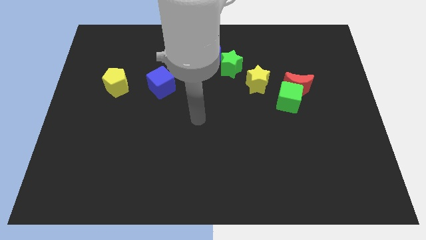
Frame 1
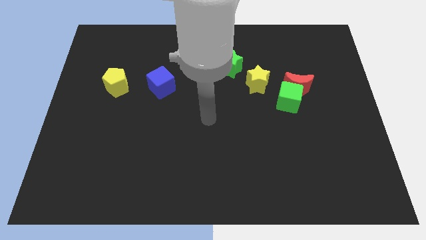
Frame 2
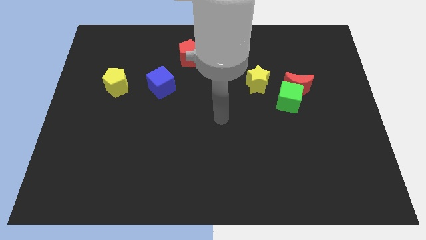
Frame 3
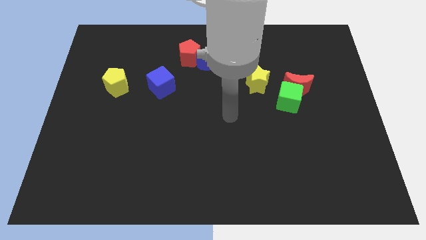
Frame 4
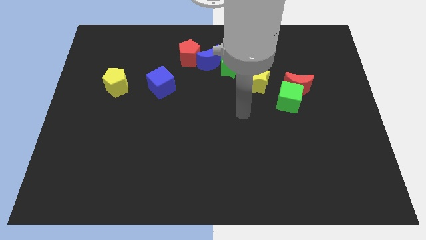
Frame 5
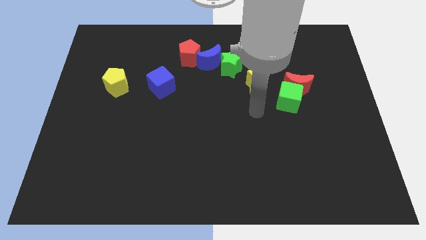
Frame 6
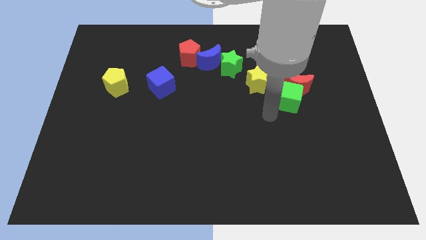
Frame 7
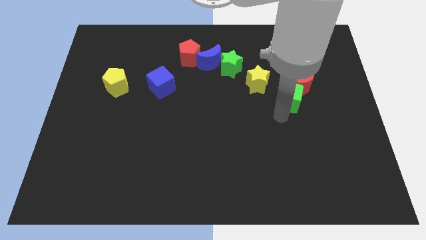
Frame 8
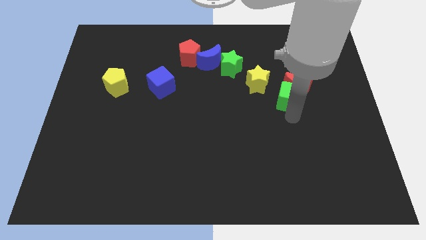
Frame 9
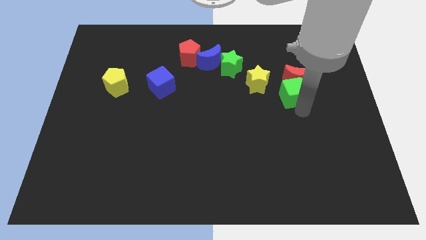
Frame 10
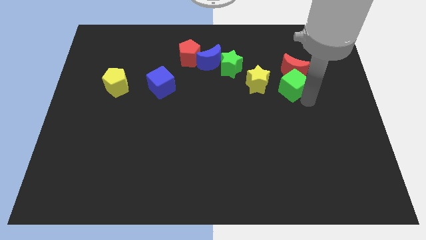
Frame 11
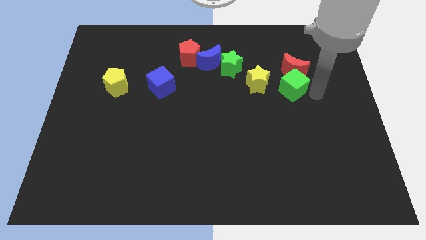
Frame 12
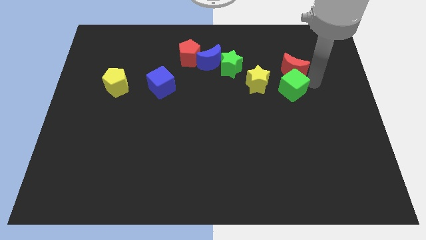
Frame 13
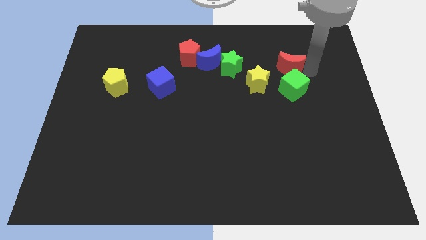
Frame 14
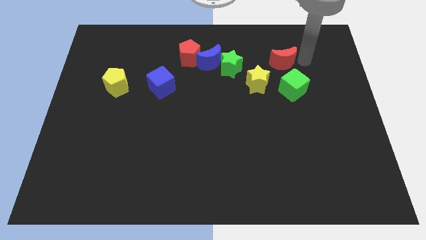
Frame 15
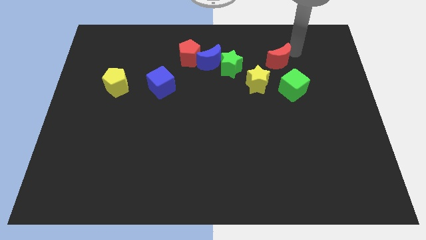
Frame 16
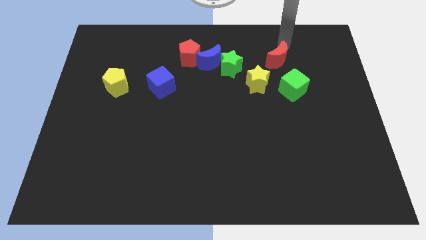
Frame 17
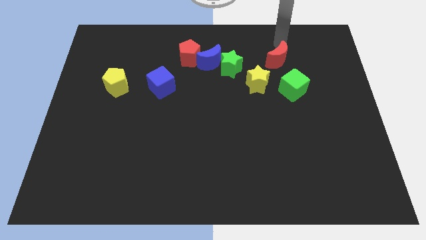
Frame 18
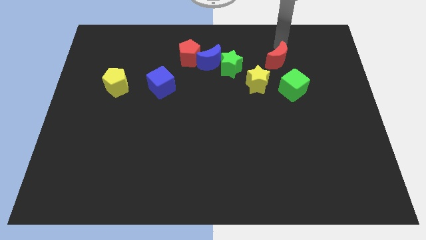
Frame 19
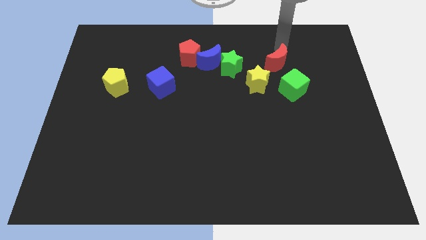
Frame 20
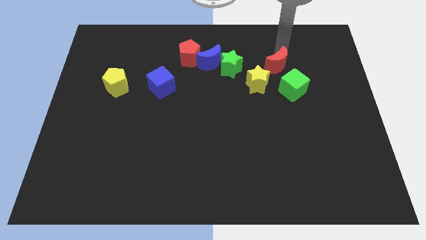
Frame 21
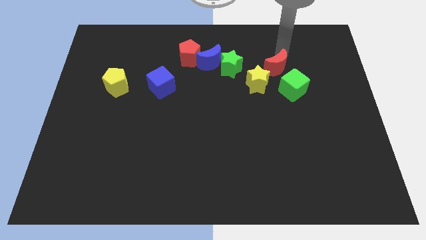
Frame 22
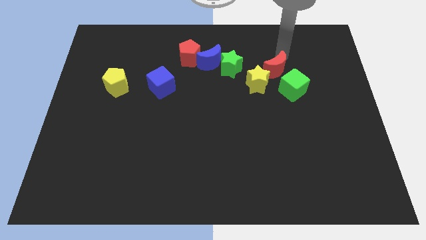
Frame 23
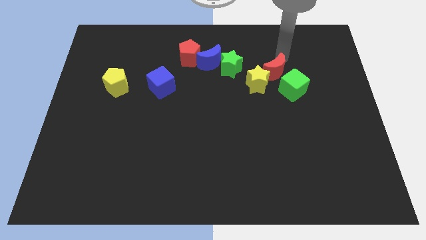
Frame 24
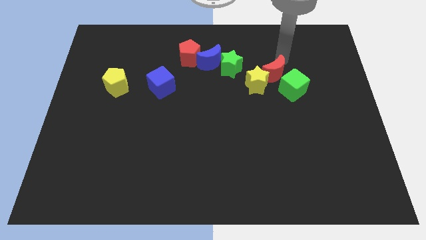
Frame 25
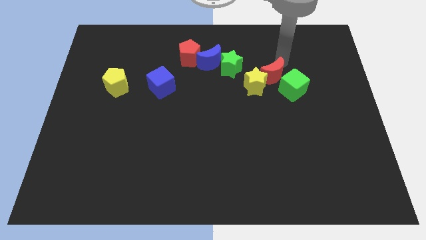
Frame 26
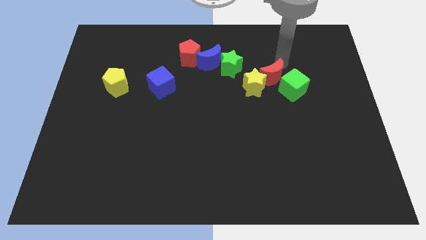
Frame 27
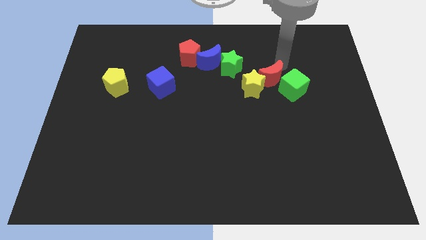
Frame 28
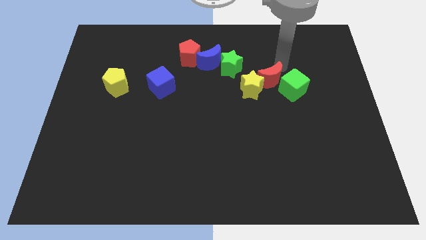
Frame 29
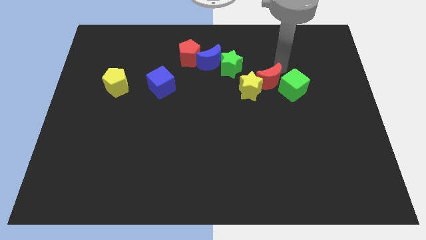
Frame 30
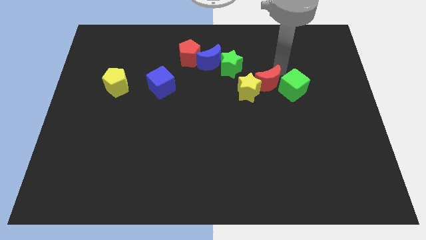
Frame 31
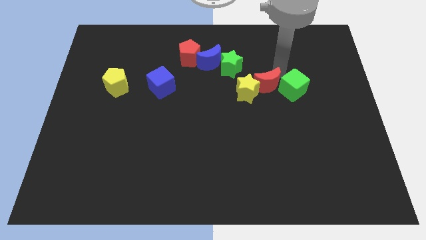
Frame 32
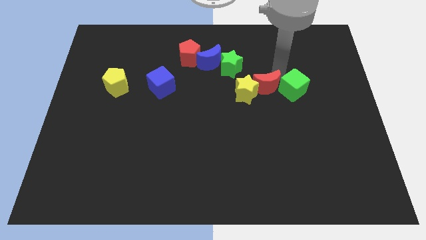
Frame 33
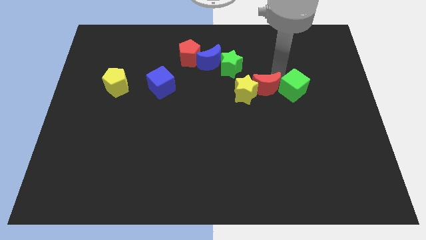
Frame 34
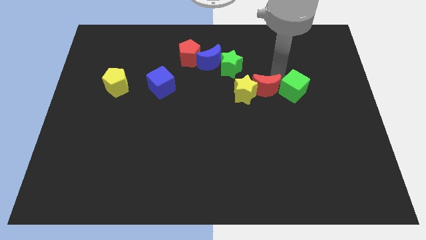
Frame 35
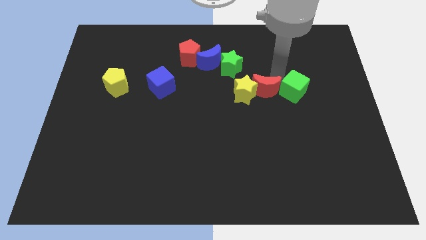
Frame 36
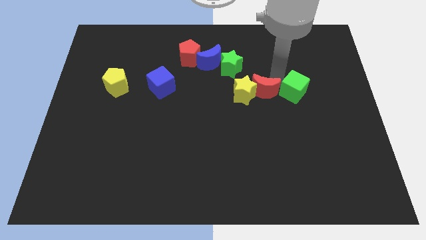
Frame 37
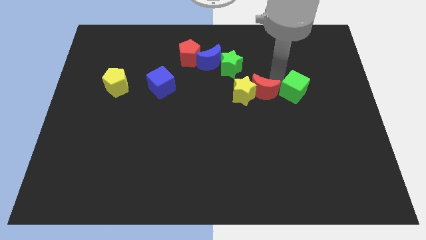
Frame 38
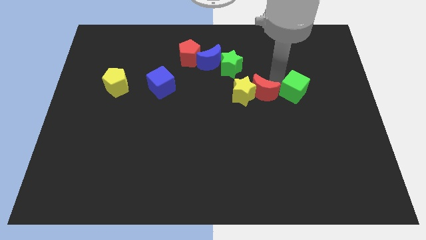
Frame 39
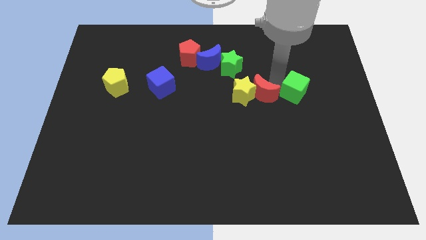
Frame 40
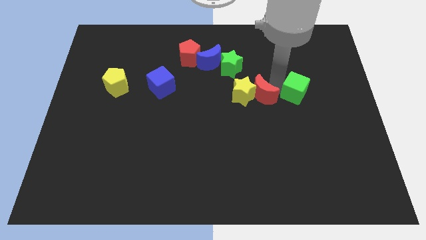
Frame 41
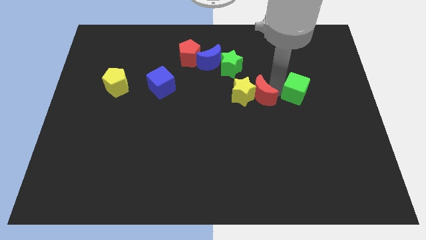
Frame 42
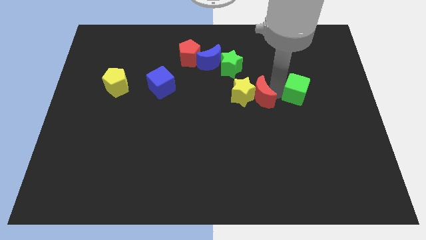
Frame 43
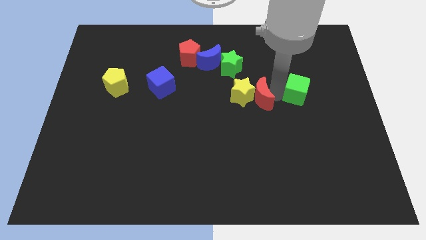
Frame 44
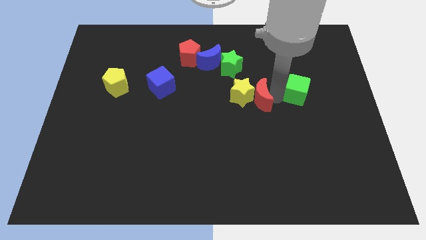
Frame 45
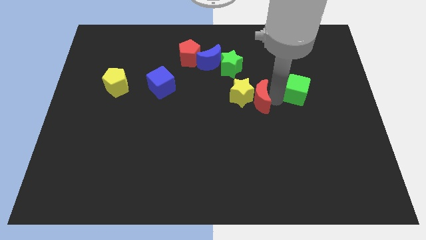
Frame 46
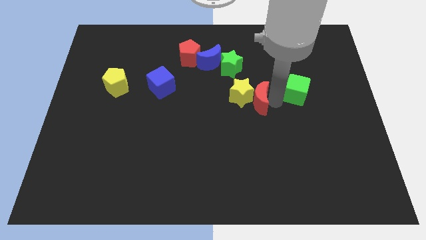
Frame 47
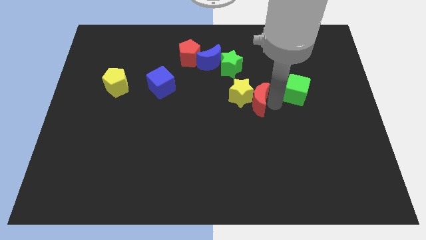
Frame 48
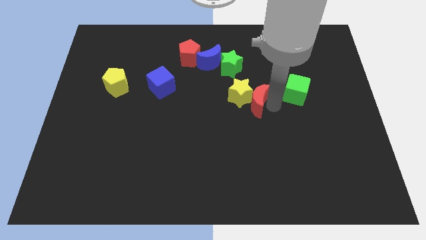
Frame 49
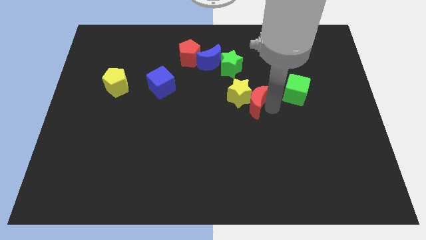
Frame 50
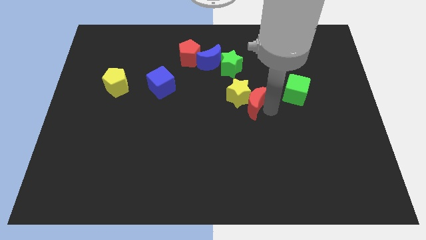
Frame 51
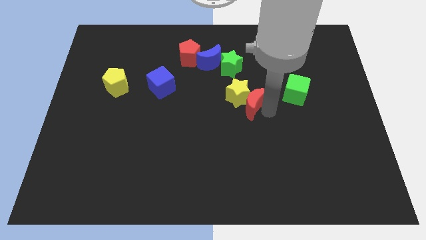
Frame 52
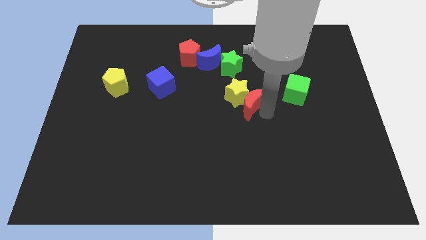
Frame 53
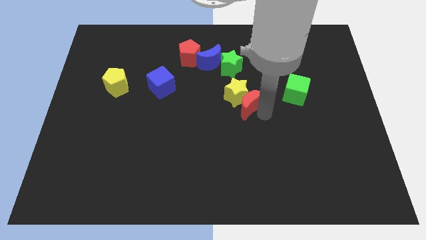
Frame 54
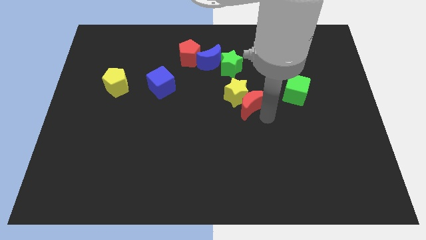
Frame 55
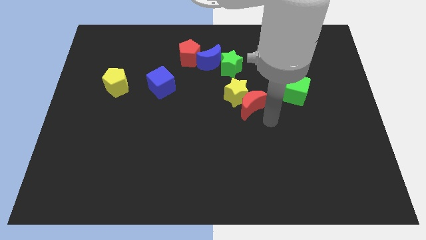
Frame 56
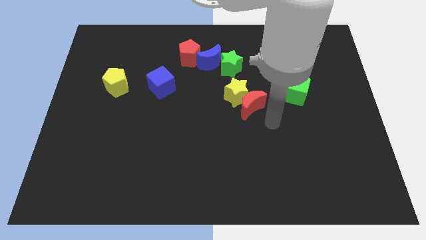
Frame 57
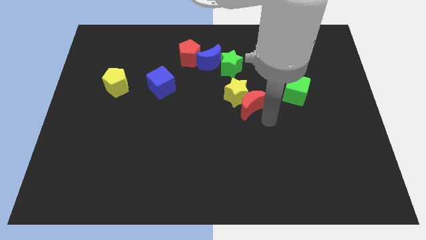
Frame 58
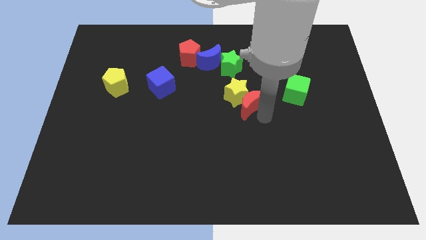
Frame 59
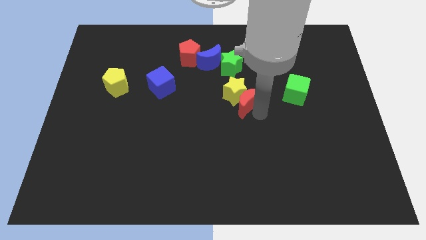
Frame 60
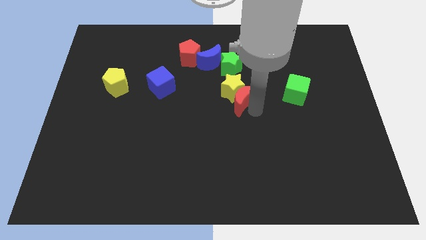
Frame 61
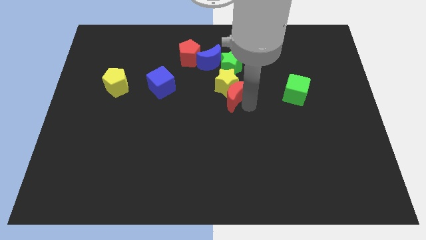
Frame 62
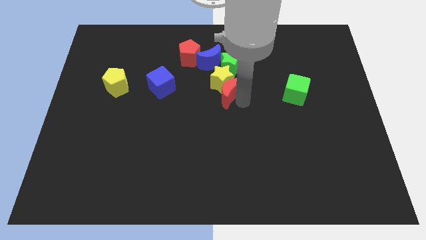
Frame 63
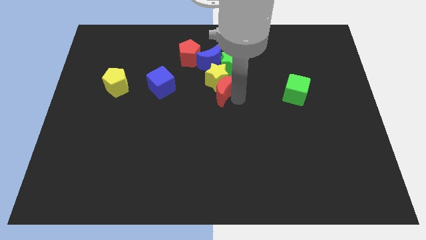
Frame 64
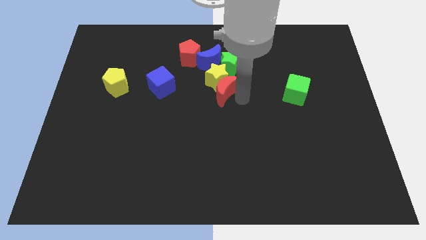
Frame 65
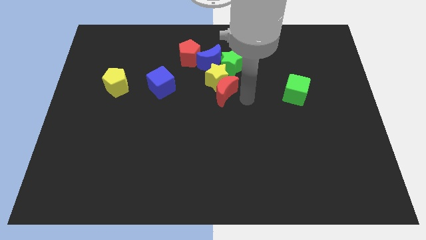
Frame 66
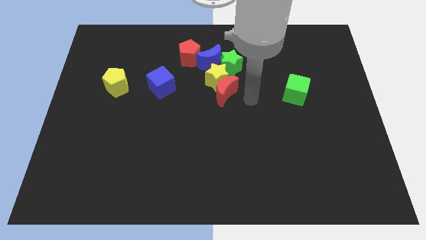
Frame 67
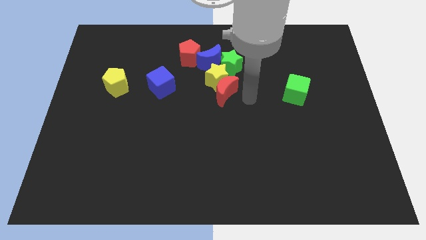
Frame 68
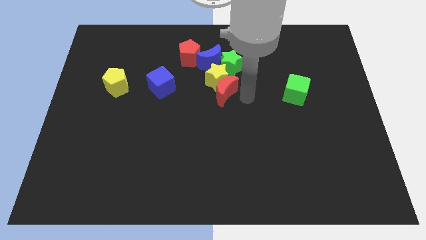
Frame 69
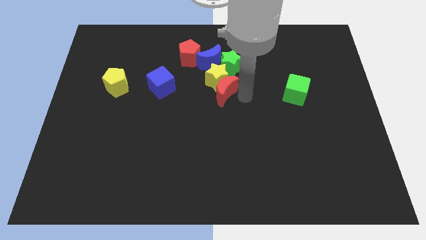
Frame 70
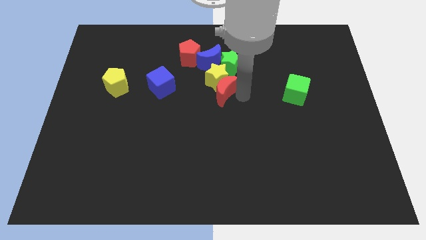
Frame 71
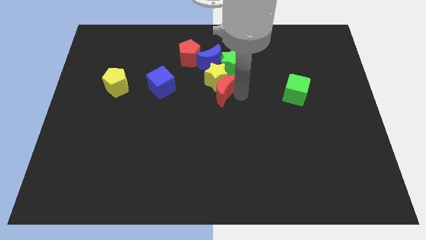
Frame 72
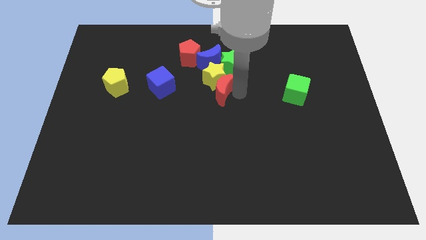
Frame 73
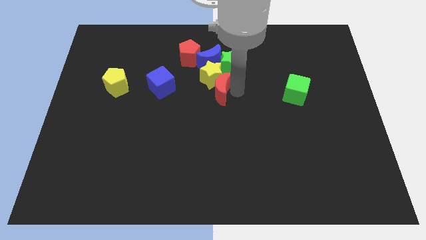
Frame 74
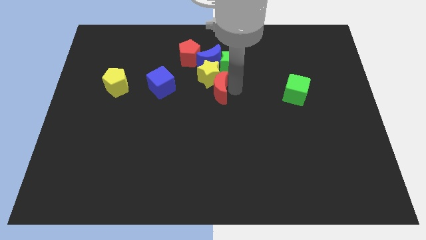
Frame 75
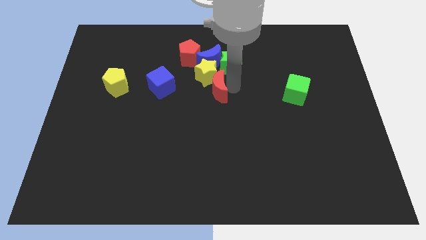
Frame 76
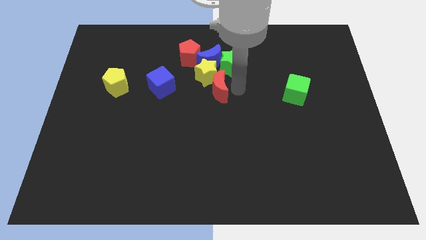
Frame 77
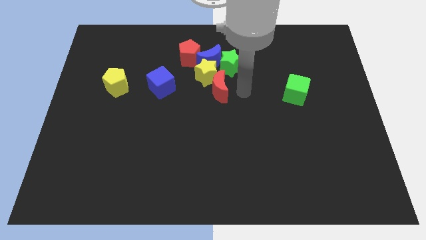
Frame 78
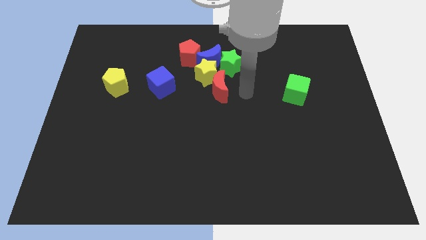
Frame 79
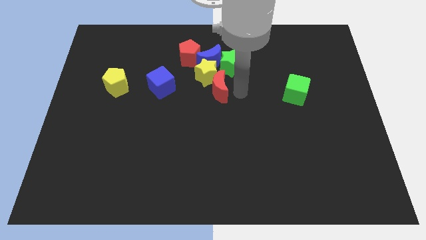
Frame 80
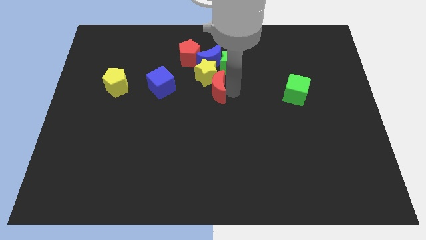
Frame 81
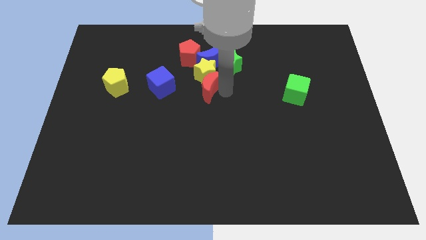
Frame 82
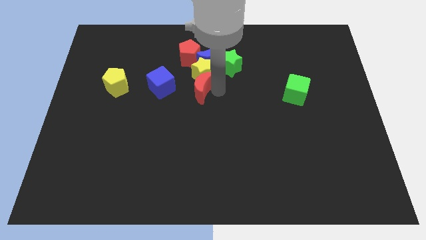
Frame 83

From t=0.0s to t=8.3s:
put the red moon to the bottom of the red pentagon
